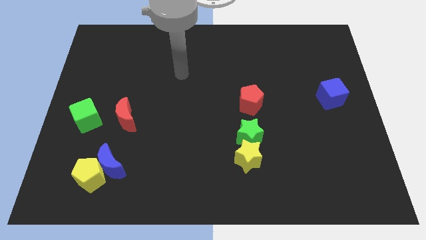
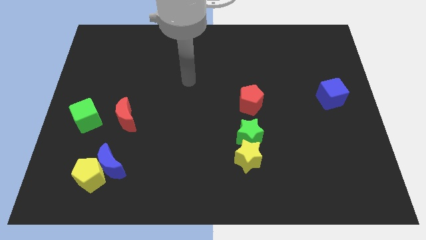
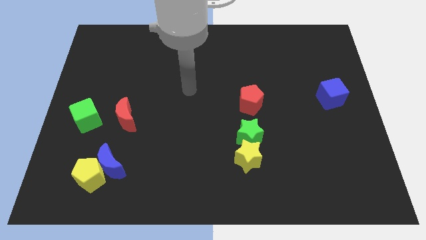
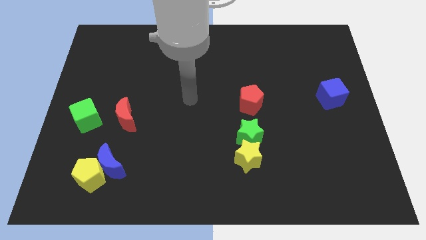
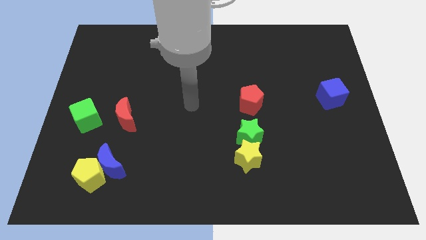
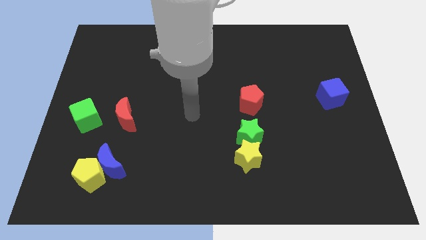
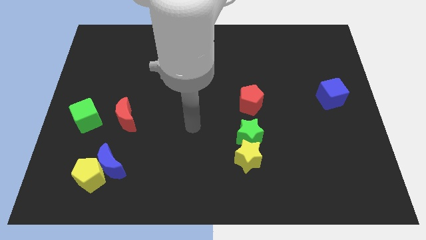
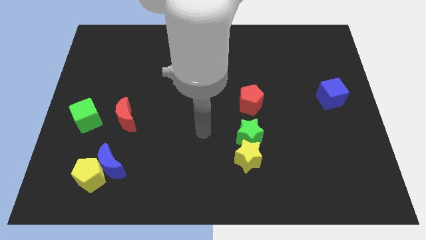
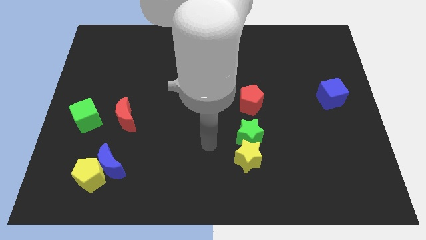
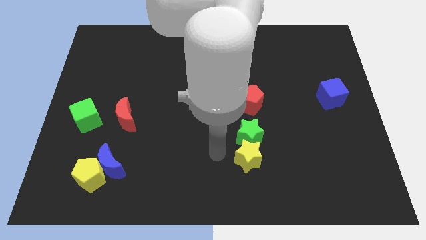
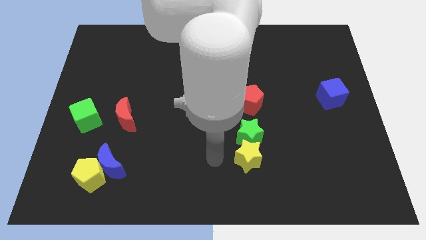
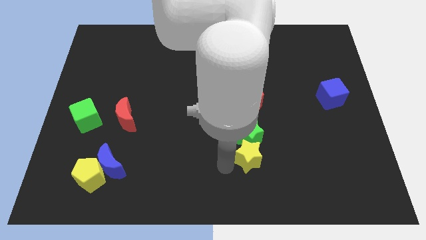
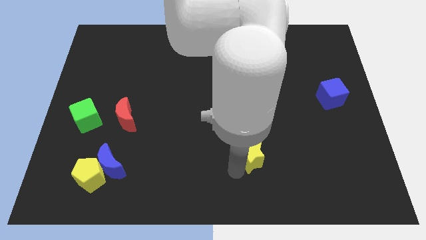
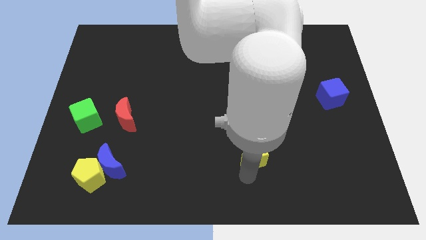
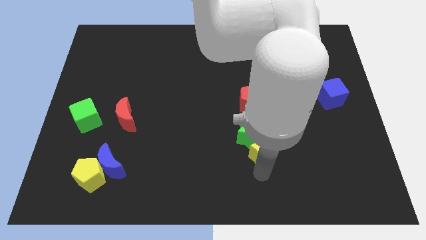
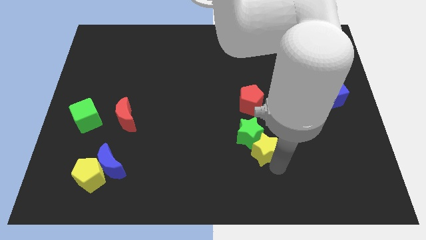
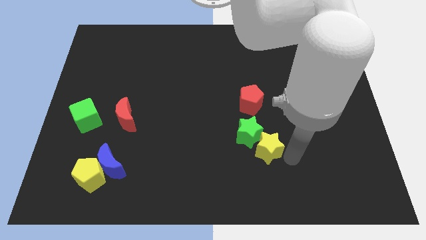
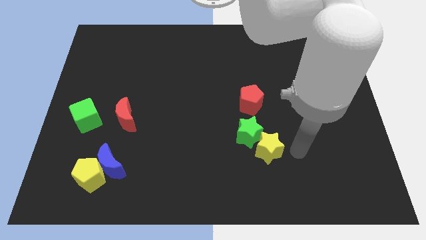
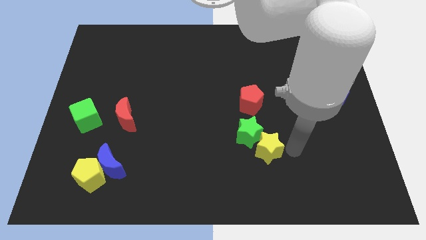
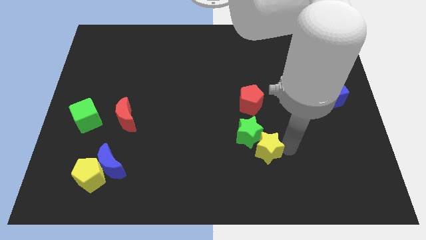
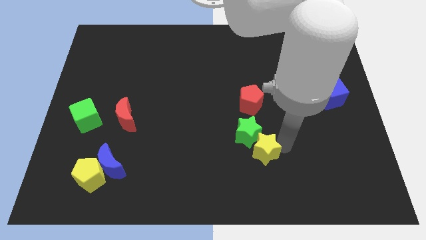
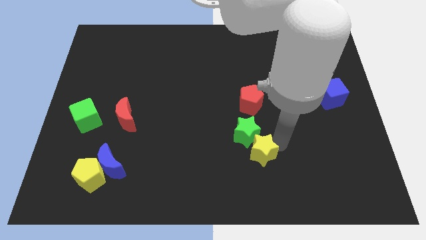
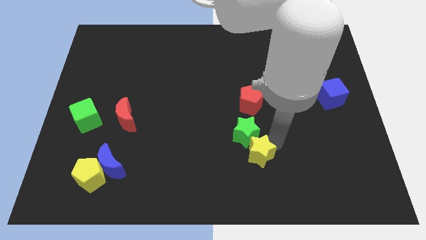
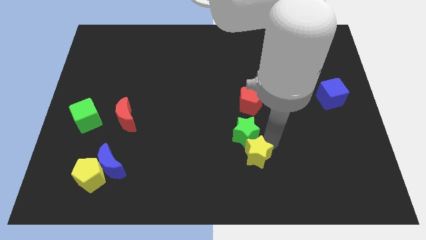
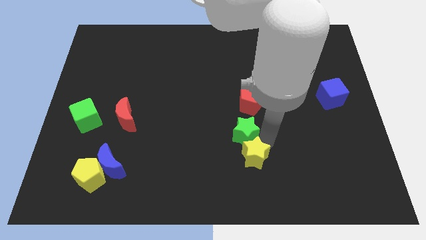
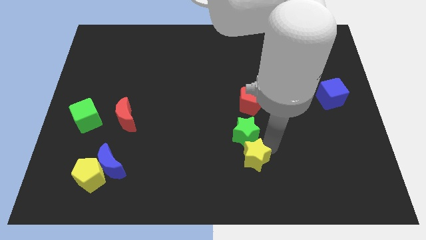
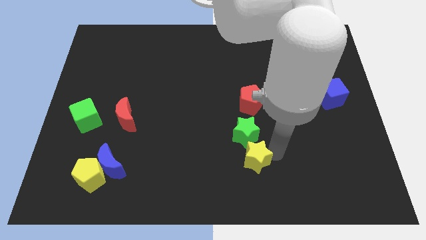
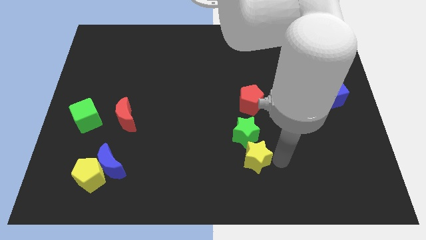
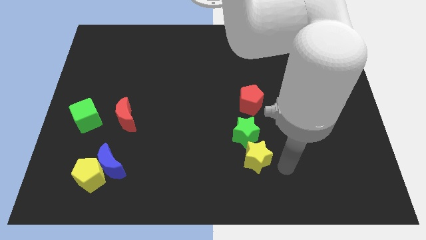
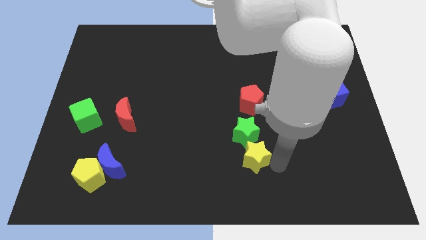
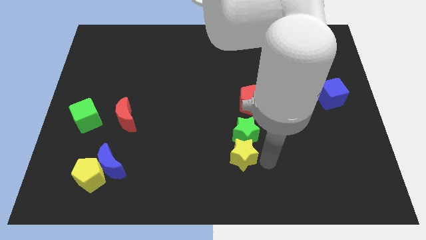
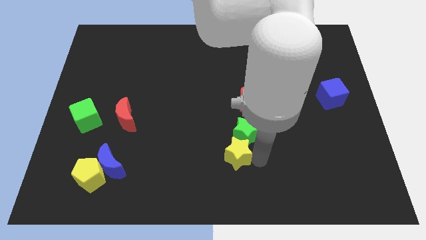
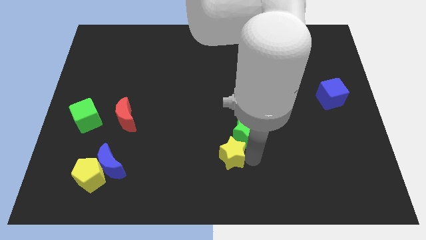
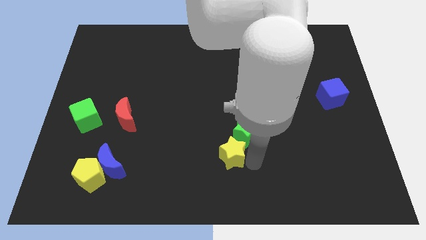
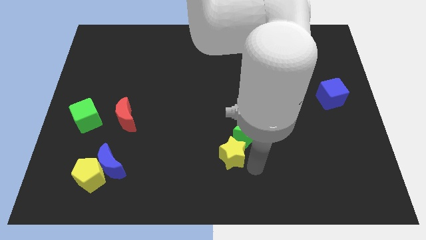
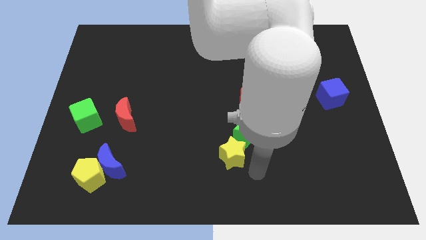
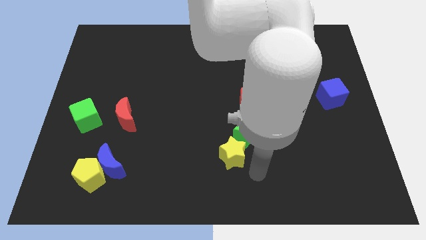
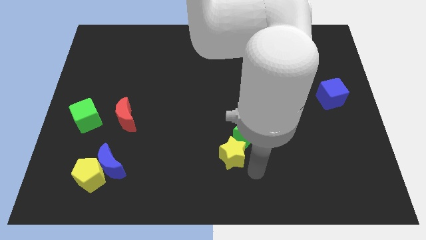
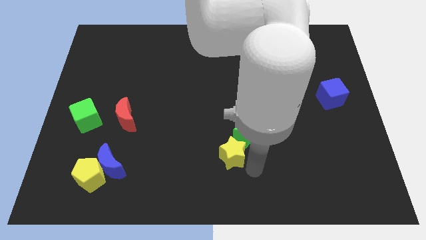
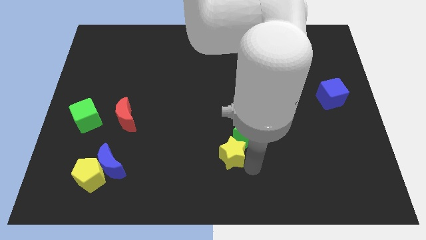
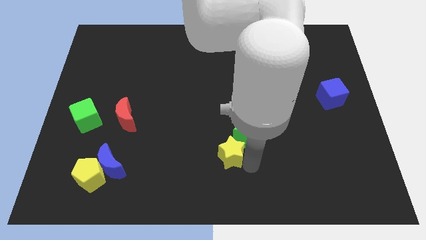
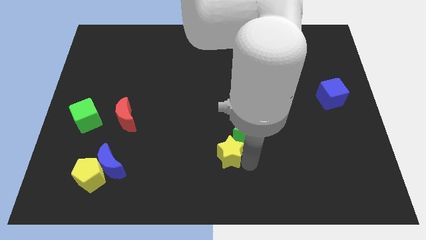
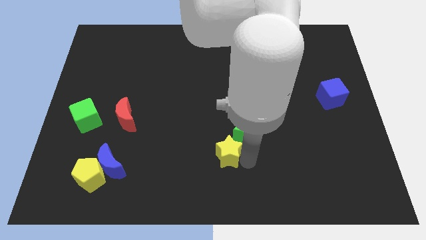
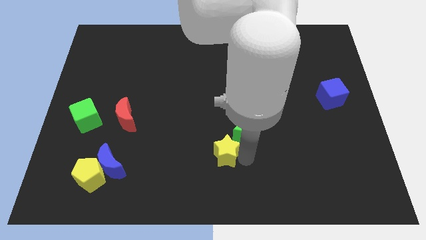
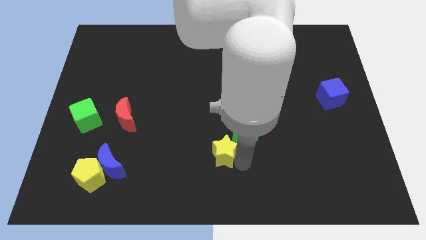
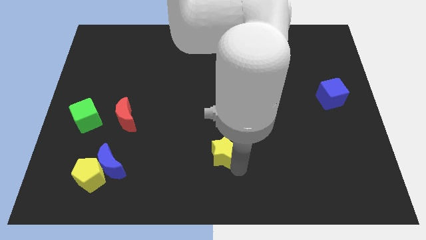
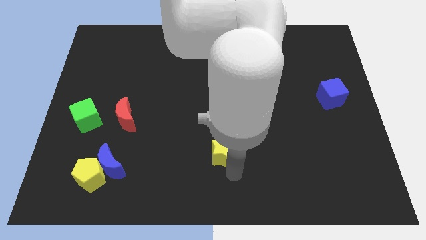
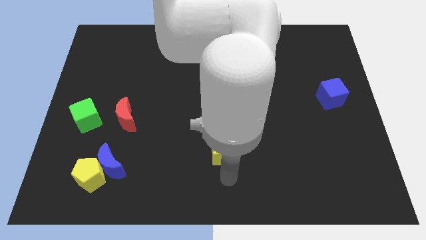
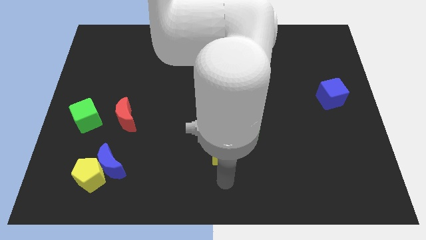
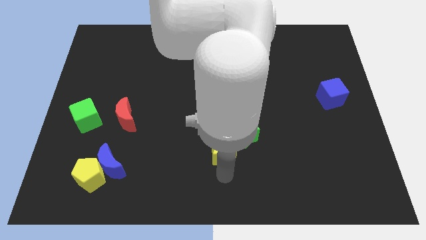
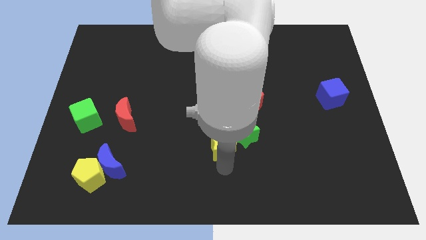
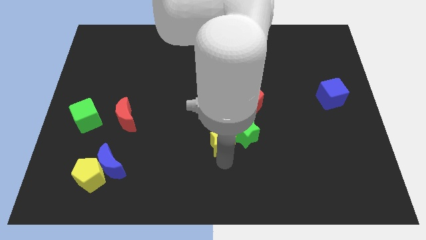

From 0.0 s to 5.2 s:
push the yellow star to the center
